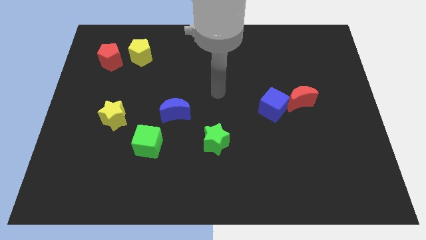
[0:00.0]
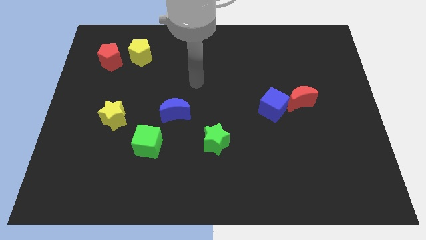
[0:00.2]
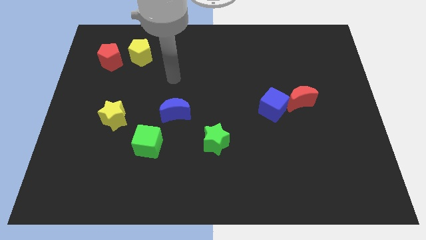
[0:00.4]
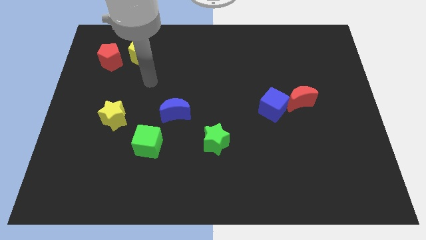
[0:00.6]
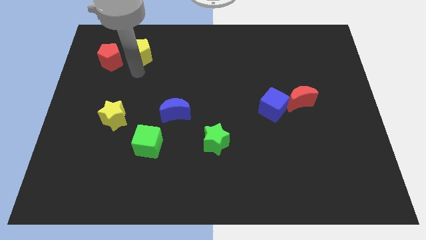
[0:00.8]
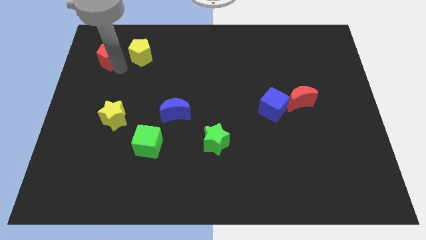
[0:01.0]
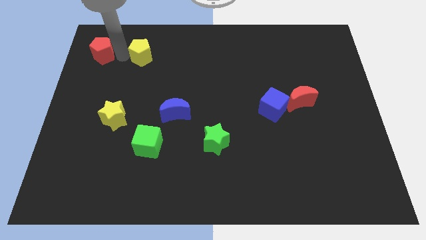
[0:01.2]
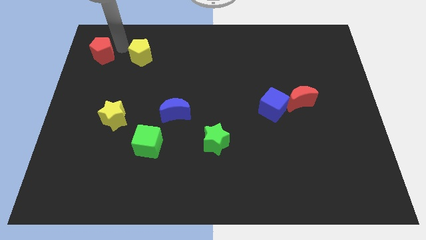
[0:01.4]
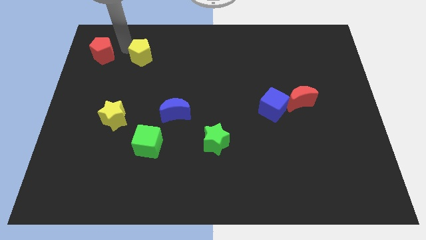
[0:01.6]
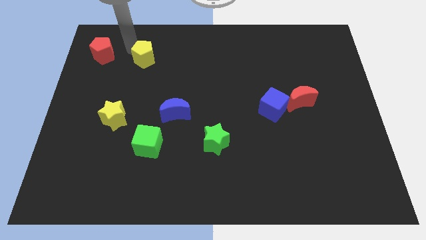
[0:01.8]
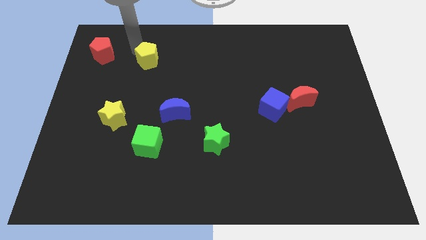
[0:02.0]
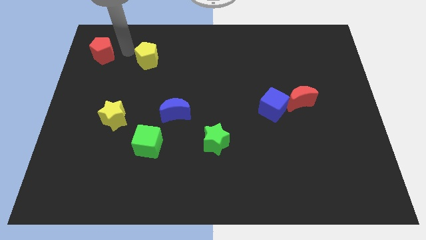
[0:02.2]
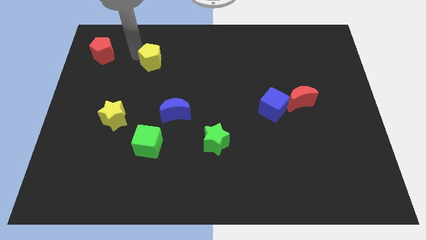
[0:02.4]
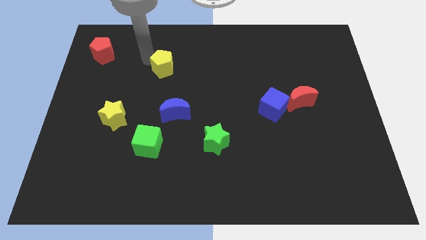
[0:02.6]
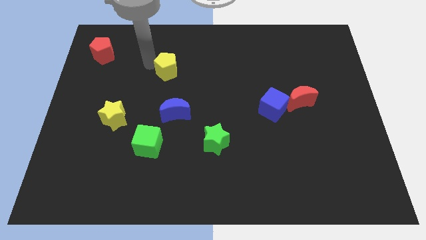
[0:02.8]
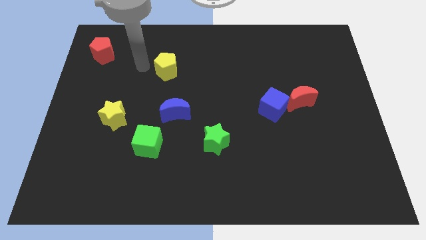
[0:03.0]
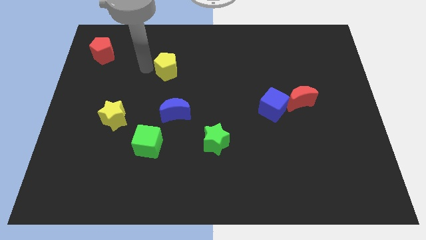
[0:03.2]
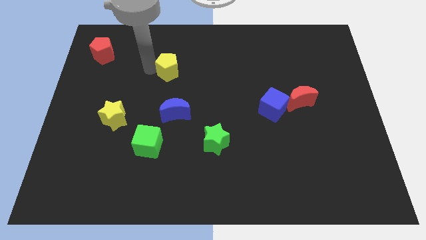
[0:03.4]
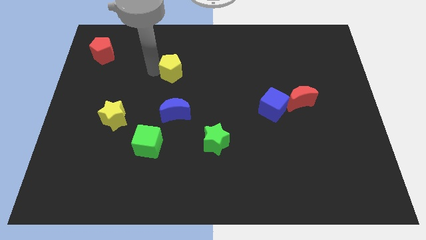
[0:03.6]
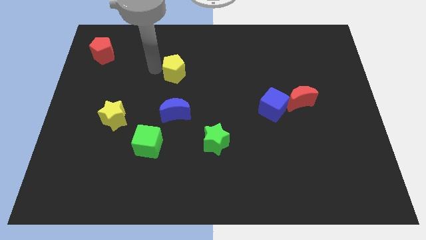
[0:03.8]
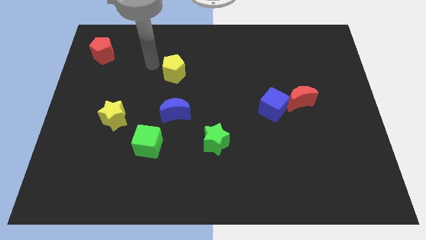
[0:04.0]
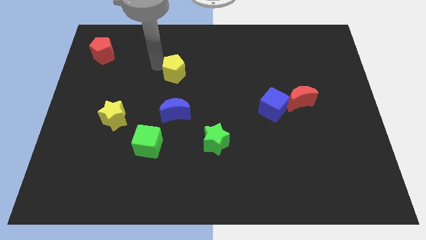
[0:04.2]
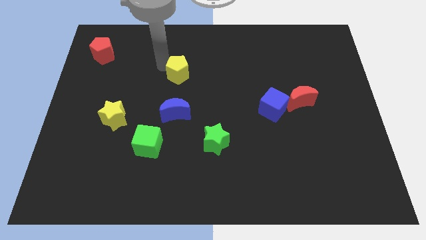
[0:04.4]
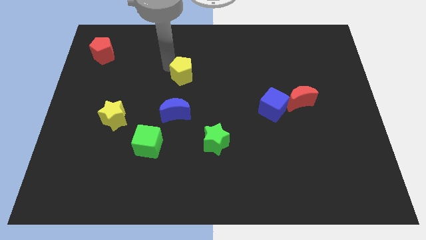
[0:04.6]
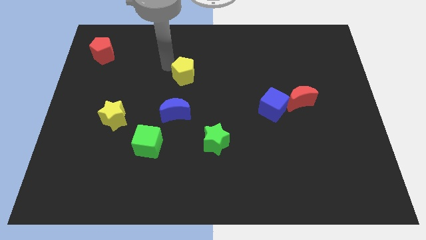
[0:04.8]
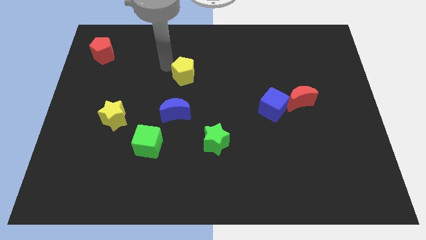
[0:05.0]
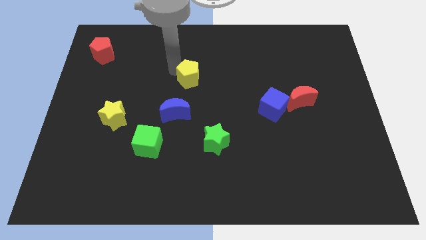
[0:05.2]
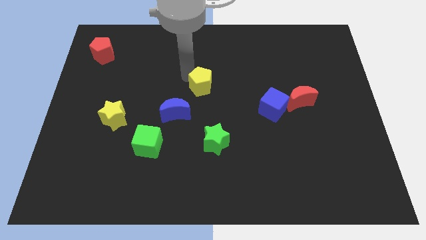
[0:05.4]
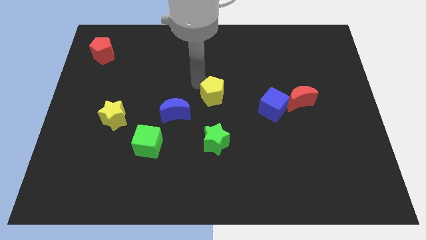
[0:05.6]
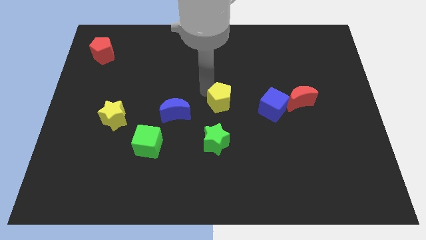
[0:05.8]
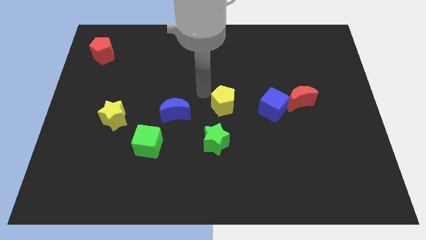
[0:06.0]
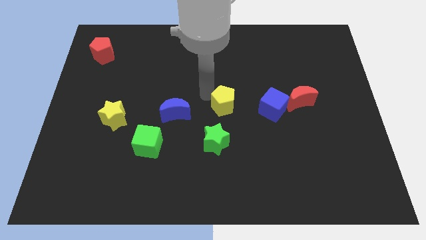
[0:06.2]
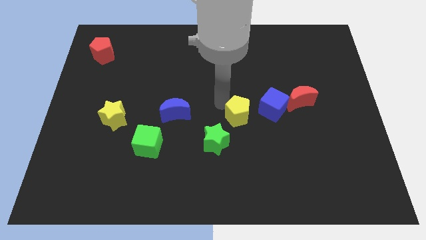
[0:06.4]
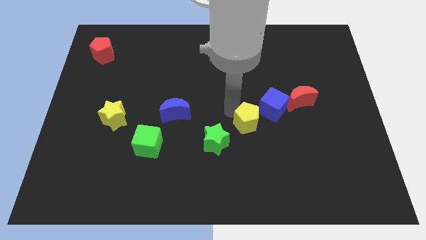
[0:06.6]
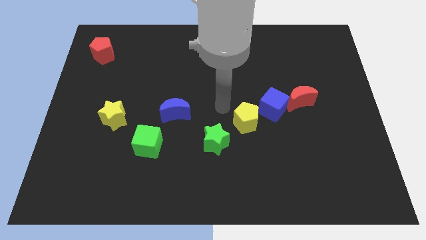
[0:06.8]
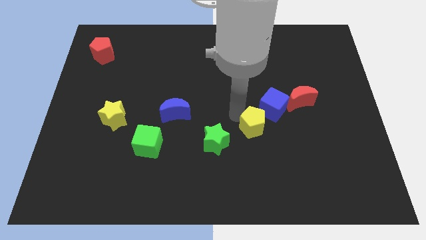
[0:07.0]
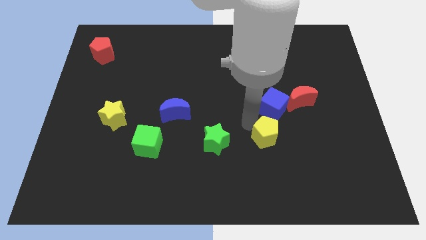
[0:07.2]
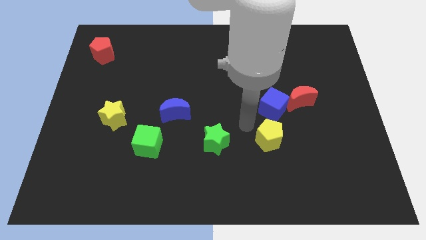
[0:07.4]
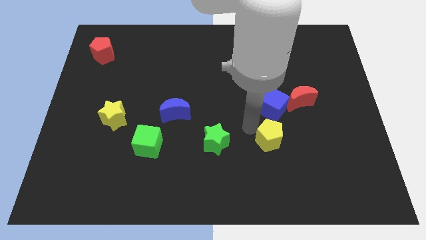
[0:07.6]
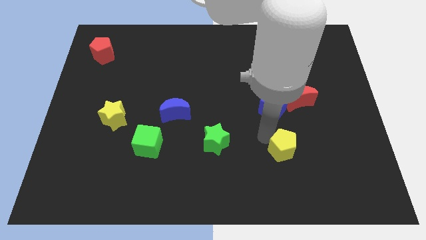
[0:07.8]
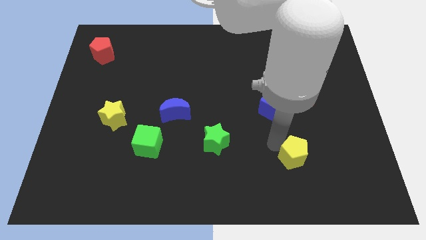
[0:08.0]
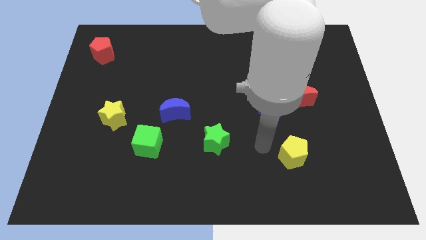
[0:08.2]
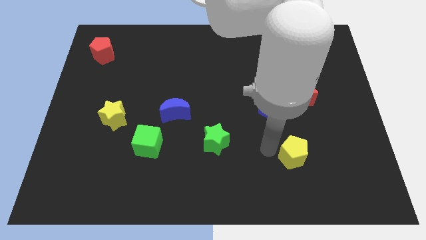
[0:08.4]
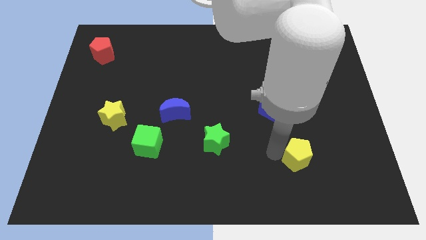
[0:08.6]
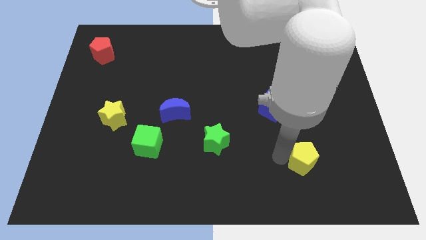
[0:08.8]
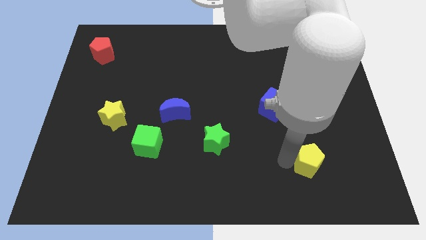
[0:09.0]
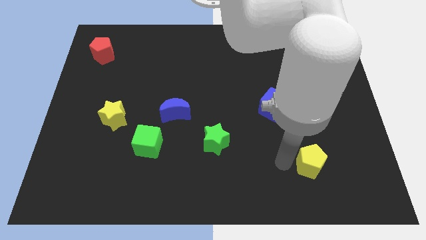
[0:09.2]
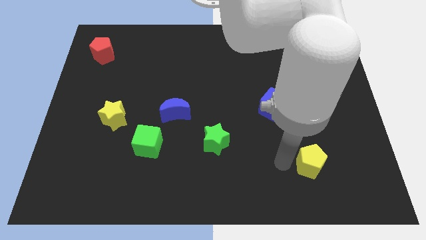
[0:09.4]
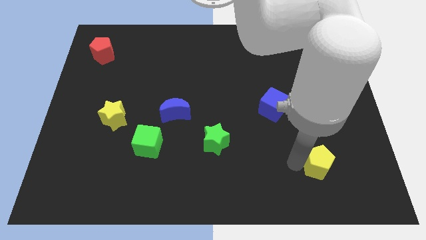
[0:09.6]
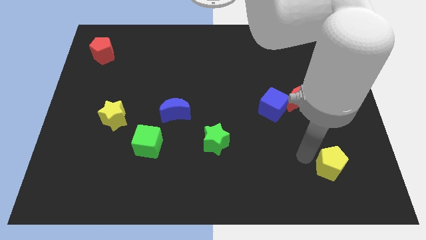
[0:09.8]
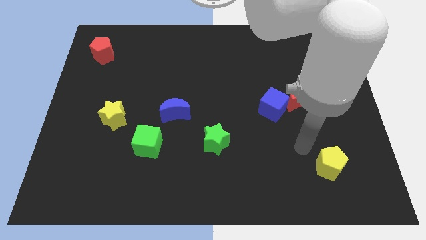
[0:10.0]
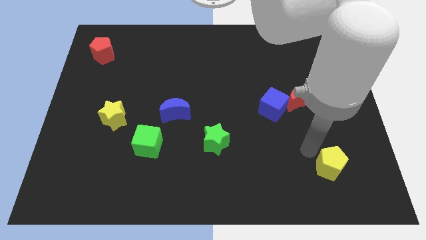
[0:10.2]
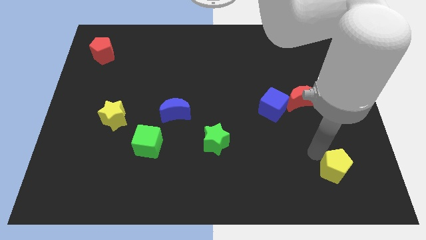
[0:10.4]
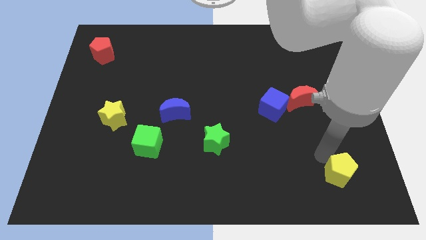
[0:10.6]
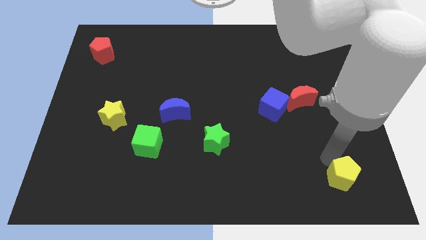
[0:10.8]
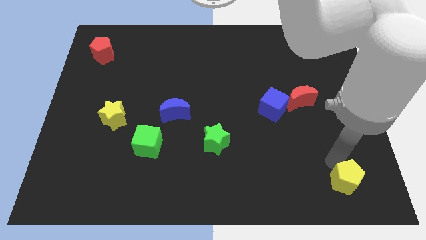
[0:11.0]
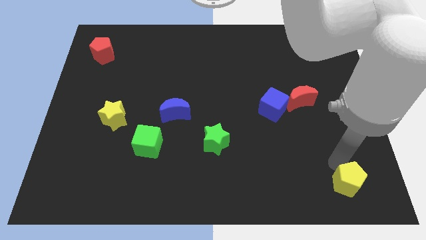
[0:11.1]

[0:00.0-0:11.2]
put the yellow pentagon to the bottom right of the board

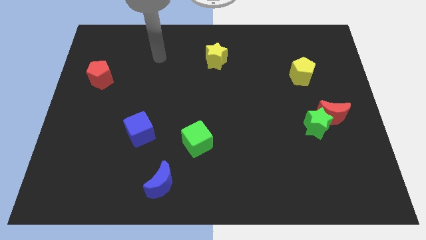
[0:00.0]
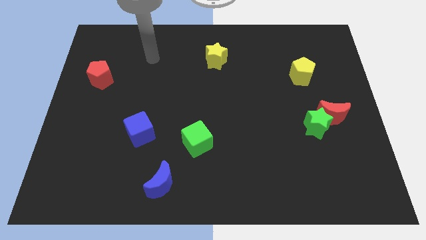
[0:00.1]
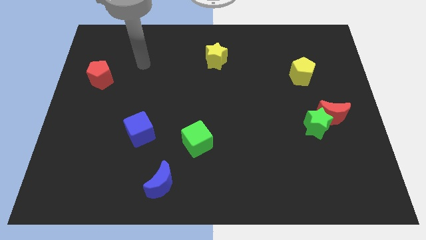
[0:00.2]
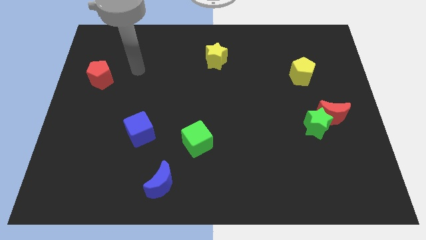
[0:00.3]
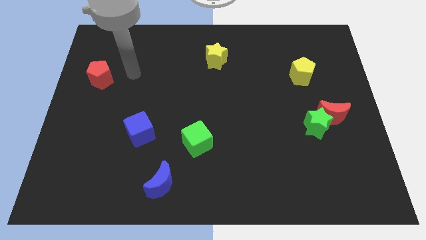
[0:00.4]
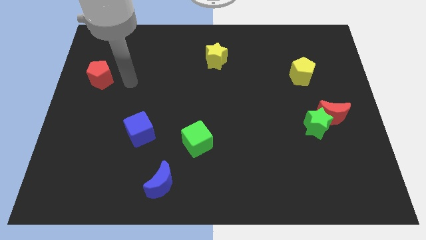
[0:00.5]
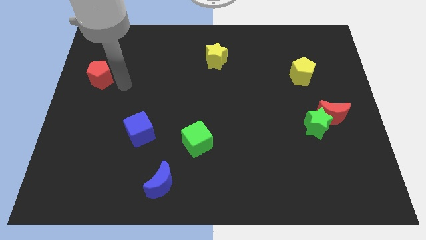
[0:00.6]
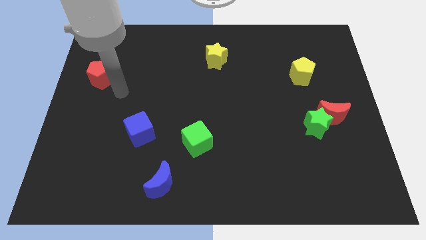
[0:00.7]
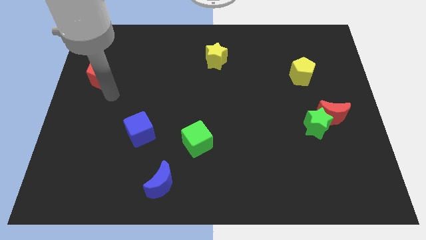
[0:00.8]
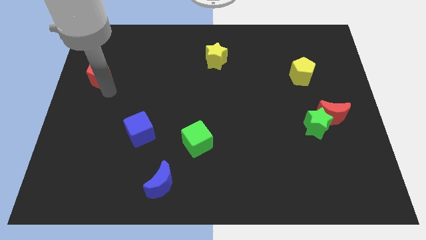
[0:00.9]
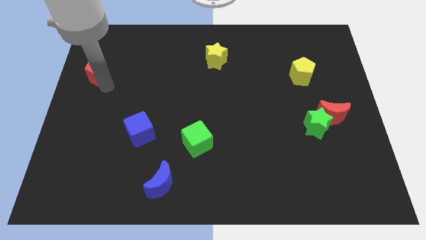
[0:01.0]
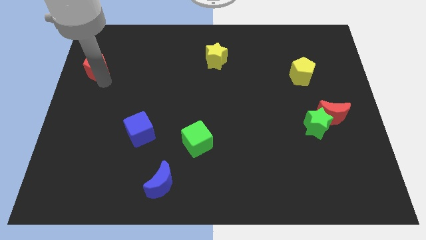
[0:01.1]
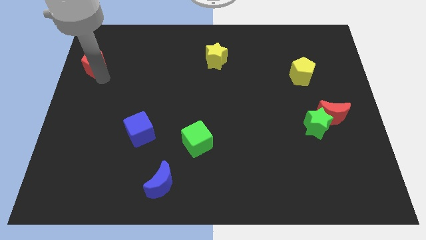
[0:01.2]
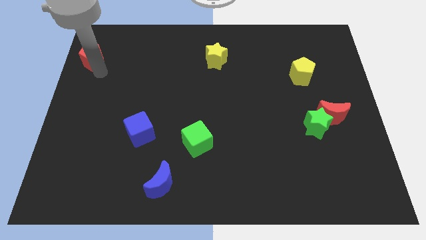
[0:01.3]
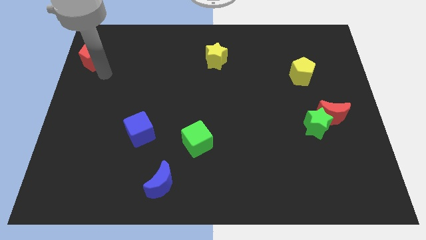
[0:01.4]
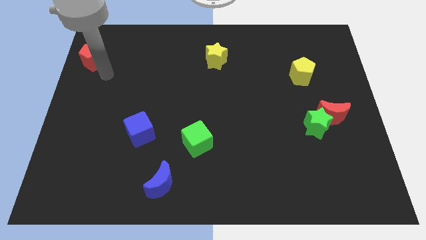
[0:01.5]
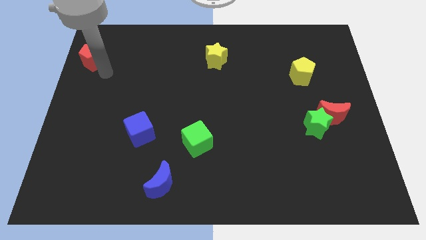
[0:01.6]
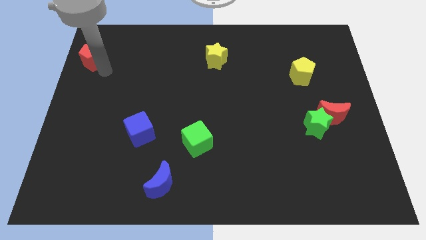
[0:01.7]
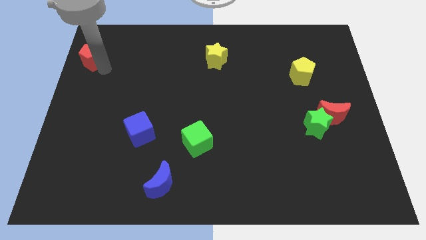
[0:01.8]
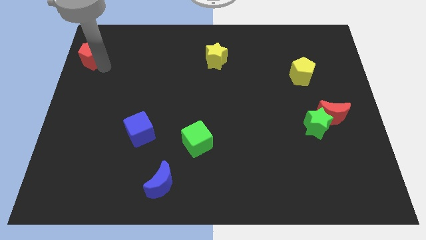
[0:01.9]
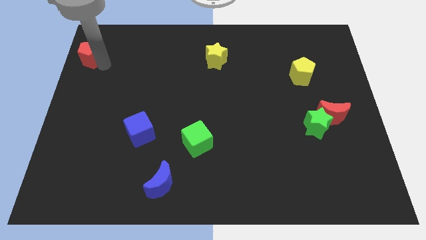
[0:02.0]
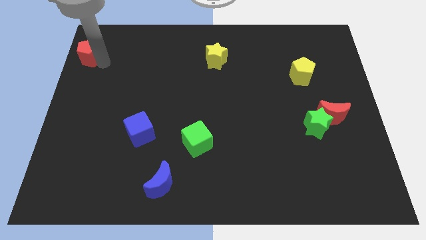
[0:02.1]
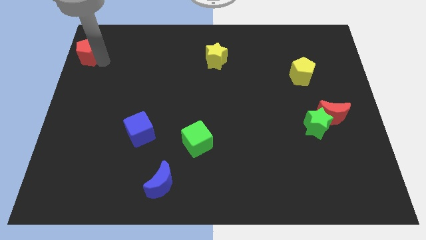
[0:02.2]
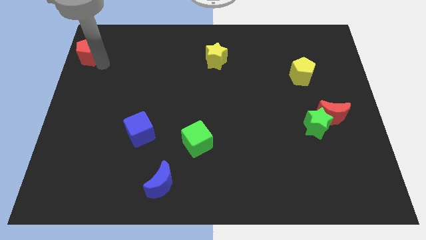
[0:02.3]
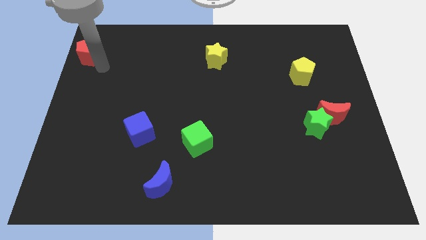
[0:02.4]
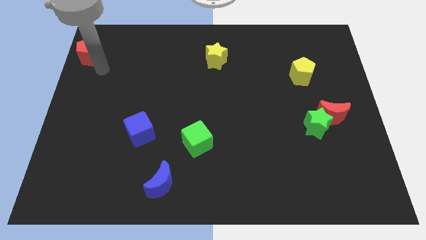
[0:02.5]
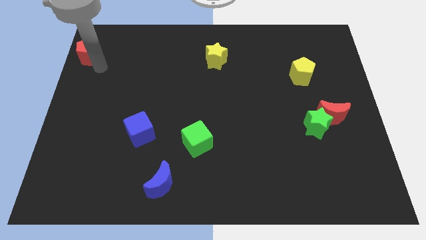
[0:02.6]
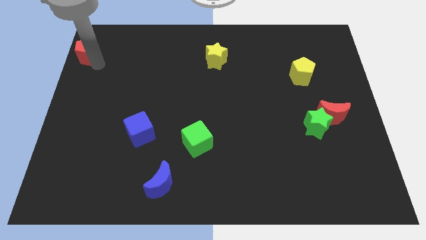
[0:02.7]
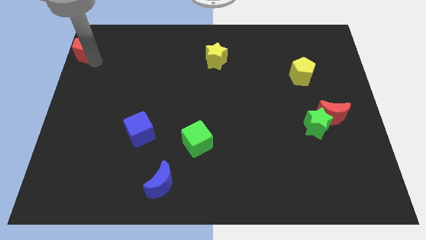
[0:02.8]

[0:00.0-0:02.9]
put the red pentagon to the upper left corner
